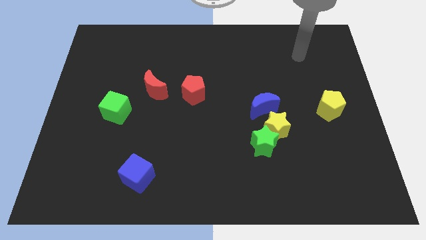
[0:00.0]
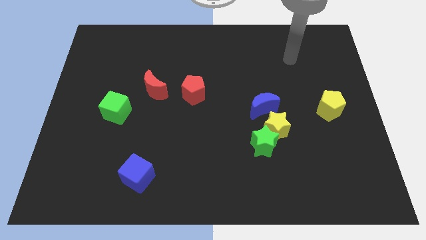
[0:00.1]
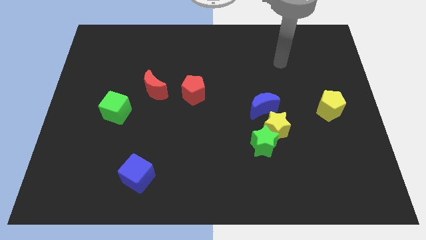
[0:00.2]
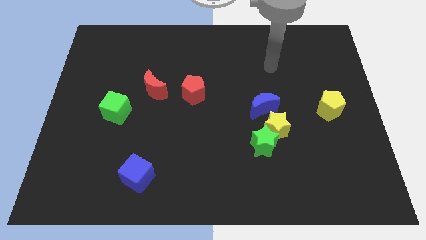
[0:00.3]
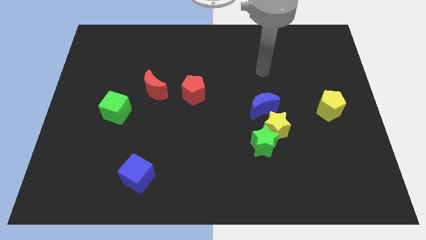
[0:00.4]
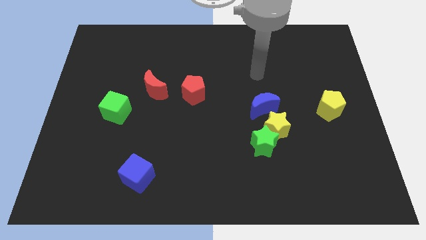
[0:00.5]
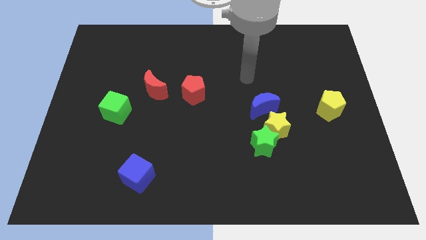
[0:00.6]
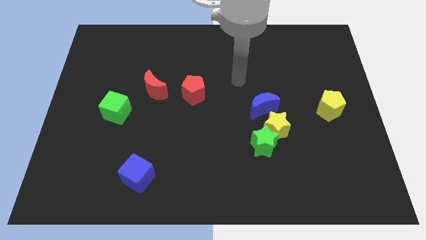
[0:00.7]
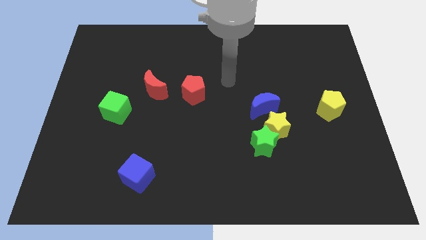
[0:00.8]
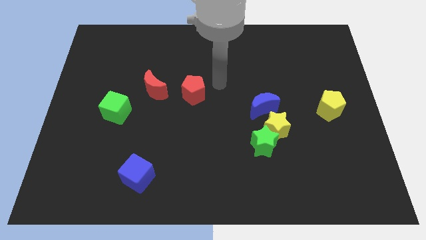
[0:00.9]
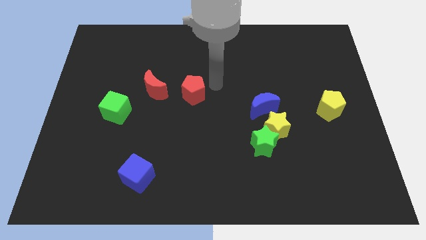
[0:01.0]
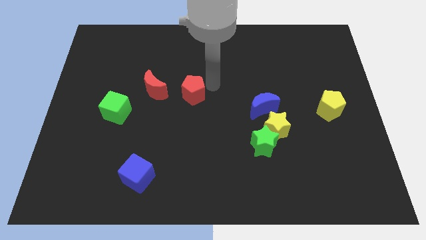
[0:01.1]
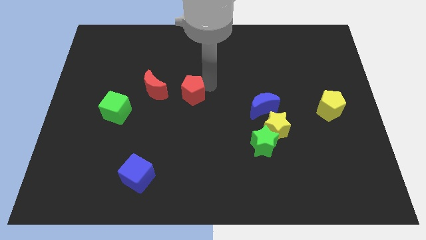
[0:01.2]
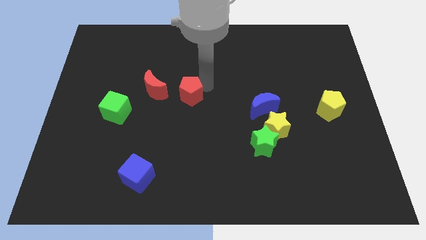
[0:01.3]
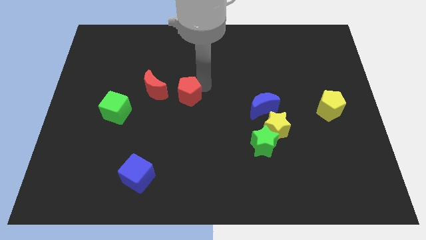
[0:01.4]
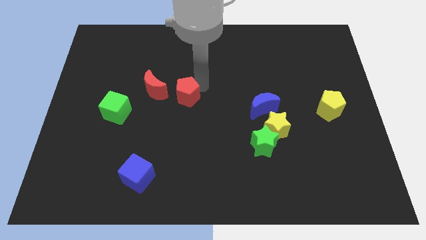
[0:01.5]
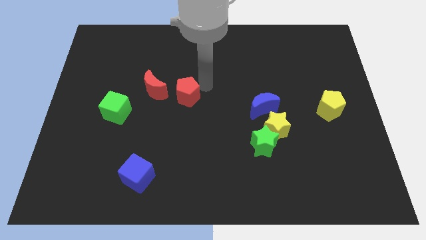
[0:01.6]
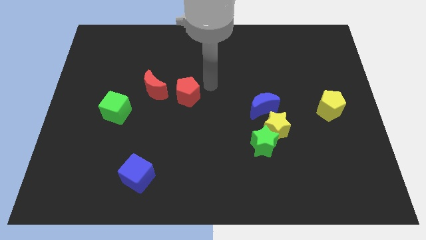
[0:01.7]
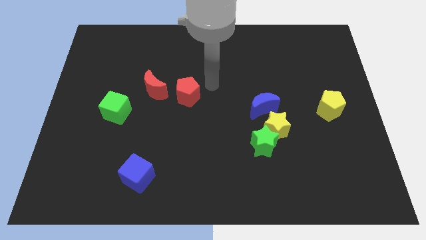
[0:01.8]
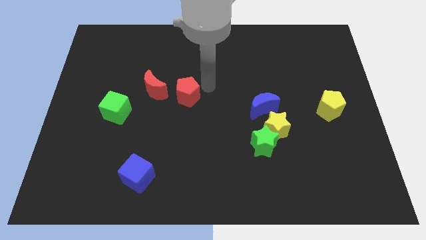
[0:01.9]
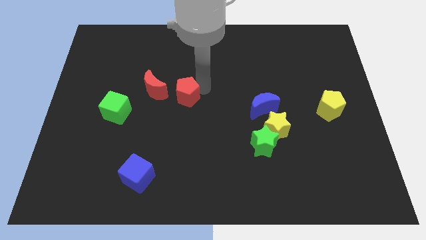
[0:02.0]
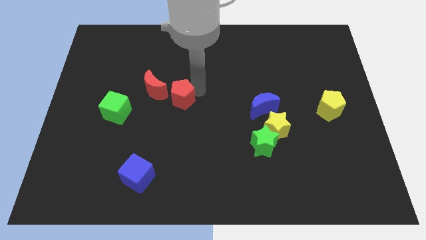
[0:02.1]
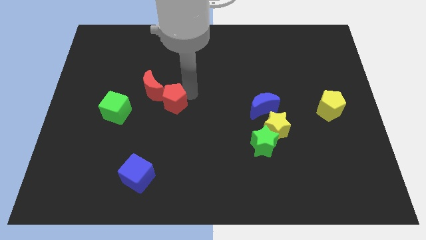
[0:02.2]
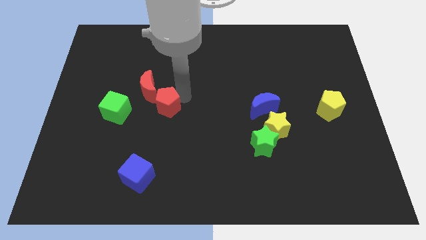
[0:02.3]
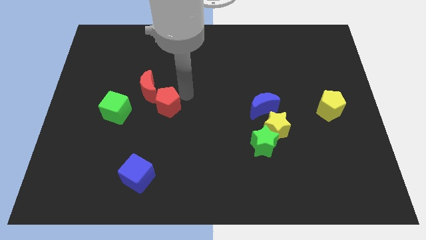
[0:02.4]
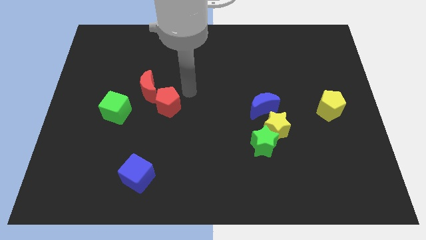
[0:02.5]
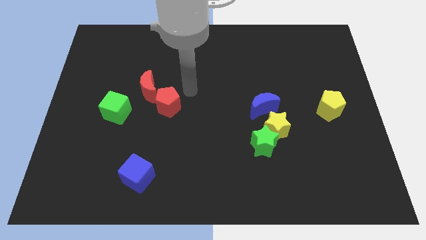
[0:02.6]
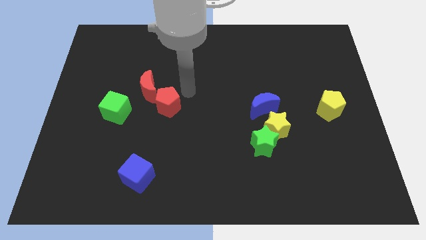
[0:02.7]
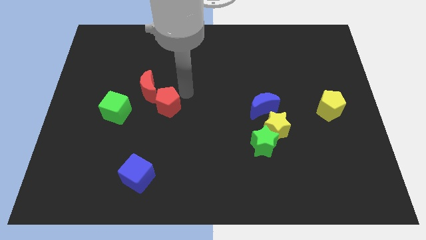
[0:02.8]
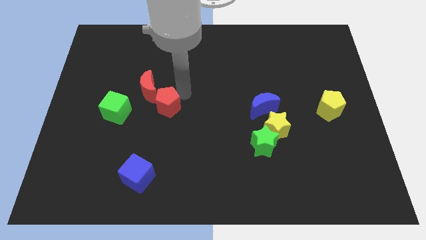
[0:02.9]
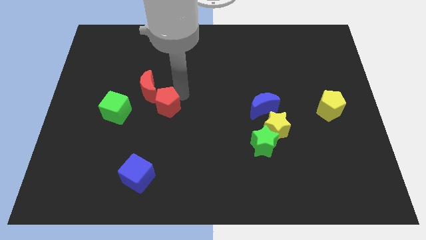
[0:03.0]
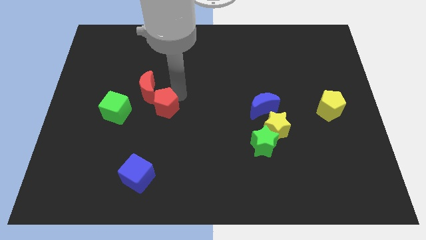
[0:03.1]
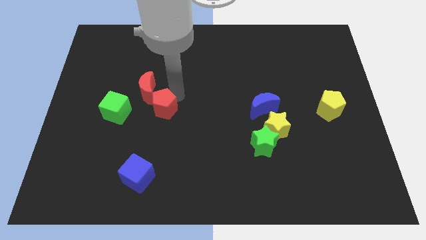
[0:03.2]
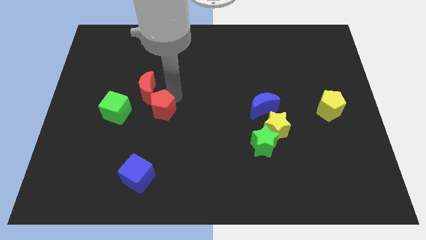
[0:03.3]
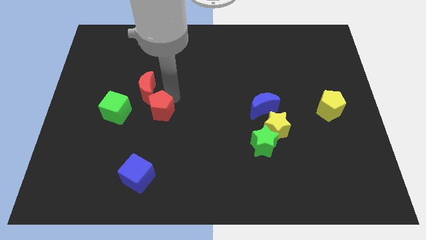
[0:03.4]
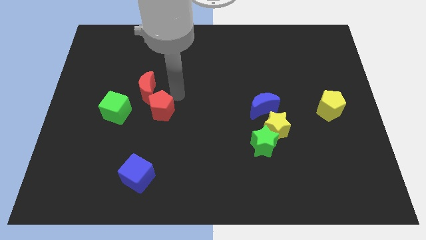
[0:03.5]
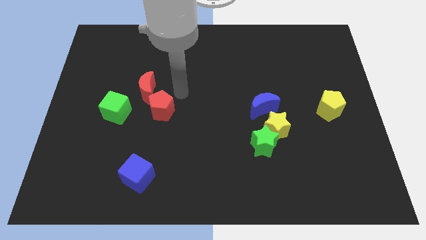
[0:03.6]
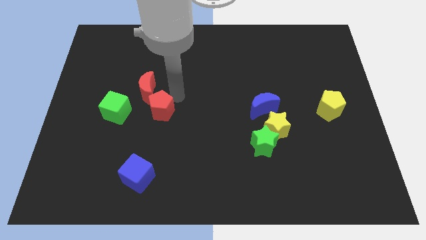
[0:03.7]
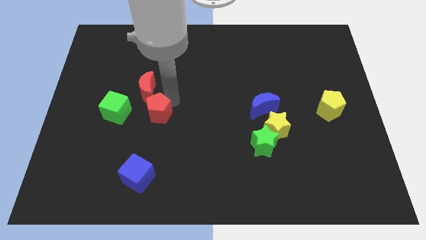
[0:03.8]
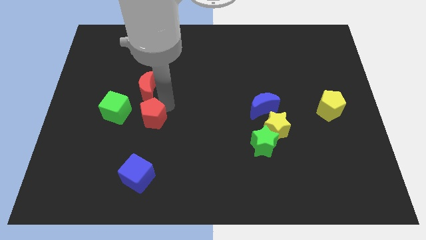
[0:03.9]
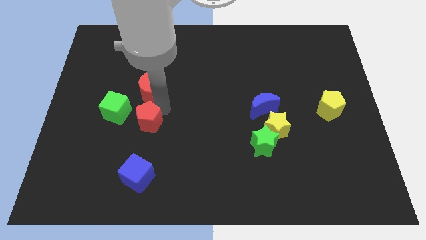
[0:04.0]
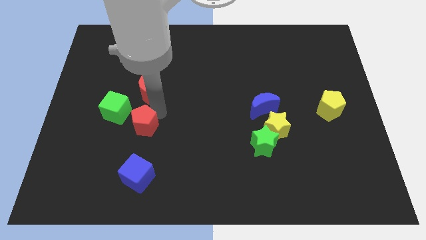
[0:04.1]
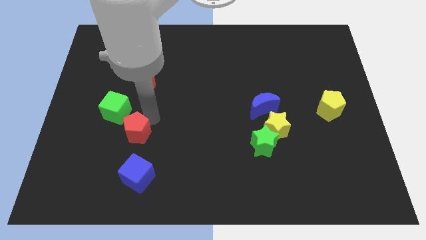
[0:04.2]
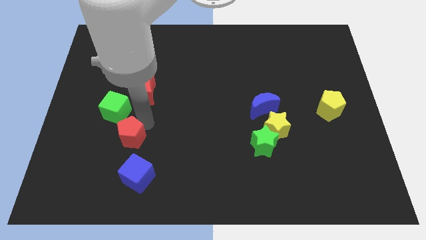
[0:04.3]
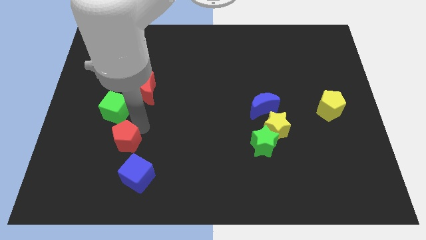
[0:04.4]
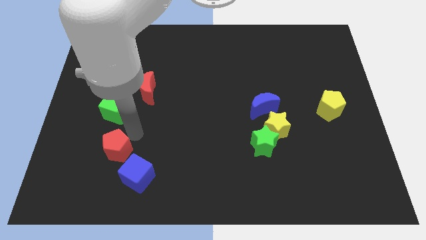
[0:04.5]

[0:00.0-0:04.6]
push the red pentagon down and then left

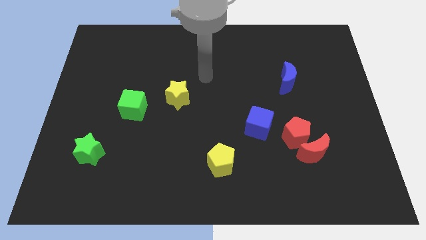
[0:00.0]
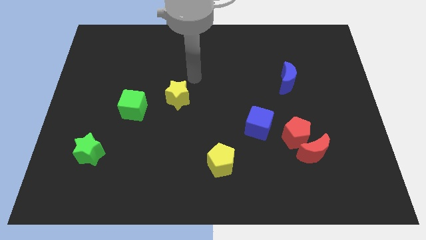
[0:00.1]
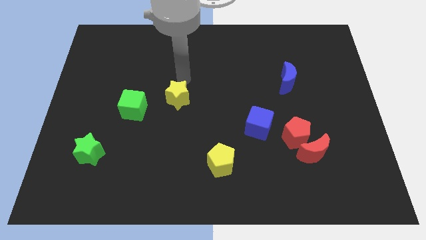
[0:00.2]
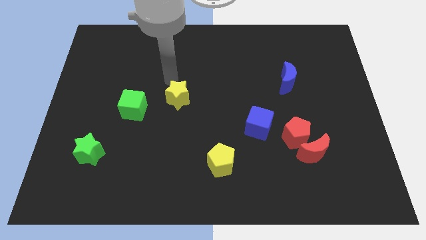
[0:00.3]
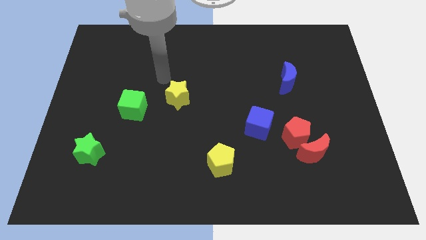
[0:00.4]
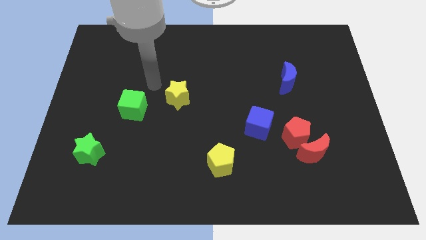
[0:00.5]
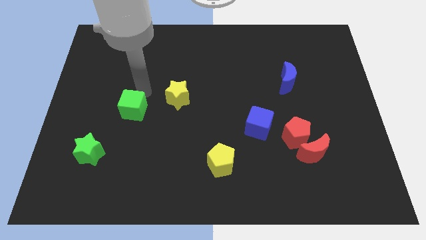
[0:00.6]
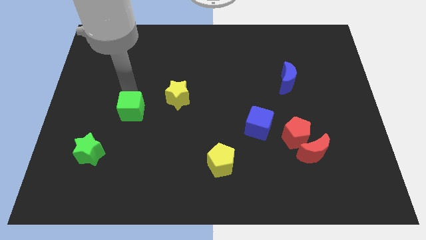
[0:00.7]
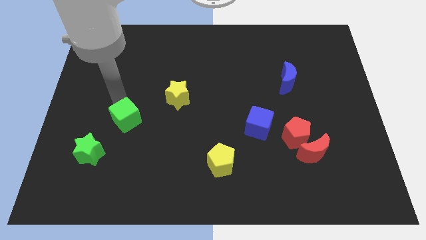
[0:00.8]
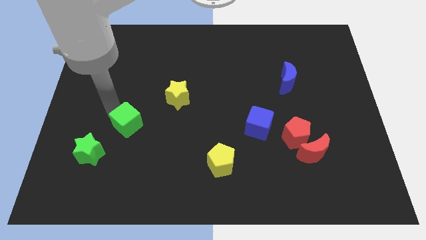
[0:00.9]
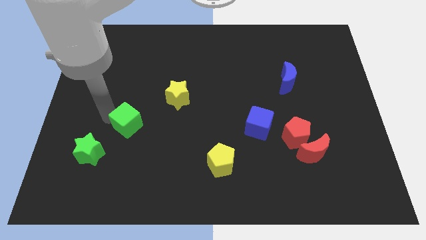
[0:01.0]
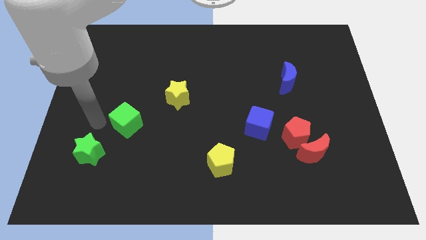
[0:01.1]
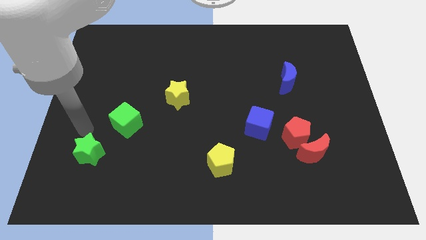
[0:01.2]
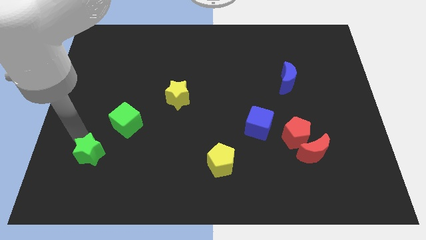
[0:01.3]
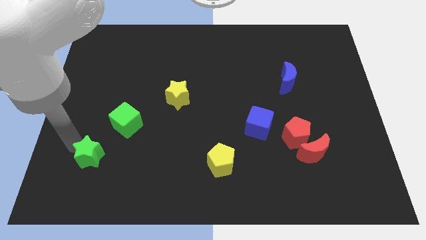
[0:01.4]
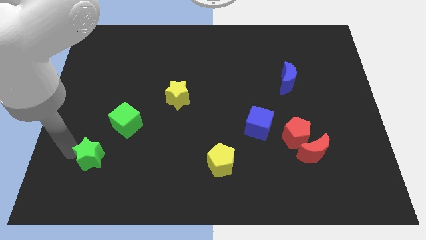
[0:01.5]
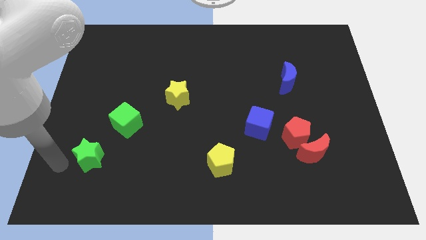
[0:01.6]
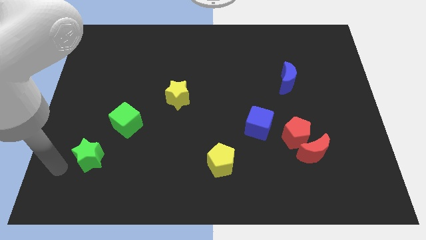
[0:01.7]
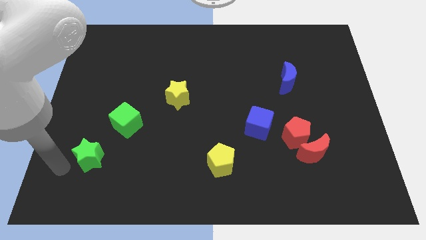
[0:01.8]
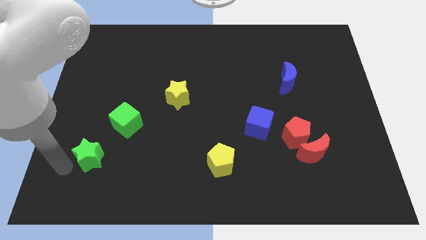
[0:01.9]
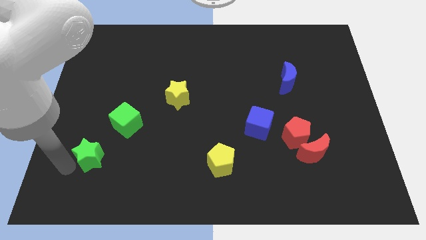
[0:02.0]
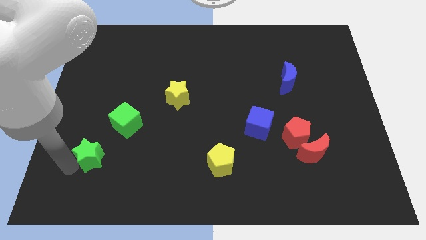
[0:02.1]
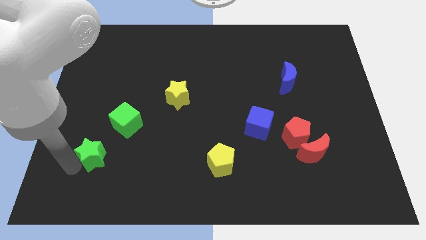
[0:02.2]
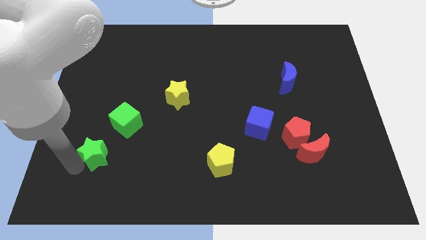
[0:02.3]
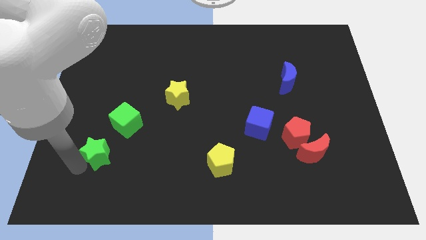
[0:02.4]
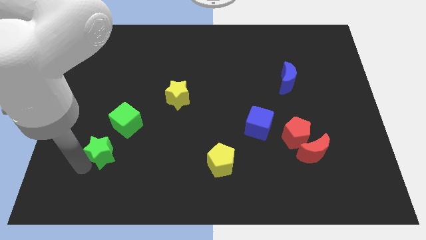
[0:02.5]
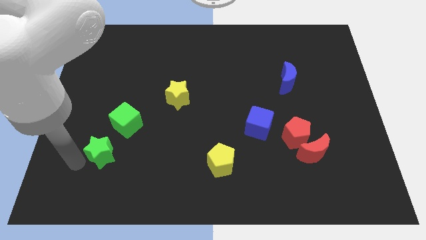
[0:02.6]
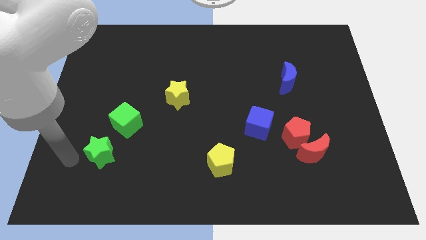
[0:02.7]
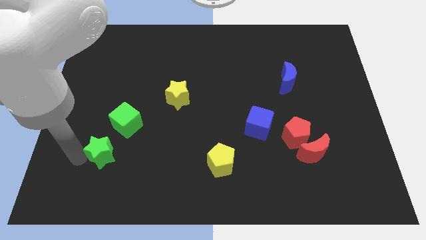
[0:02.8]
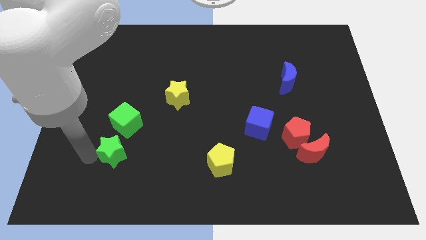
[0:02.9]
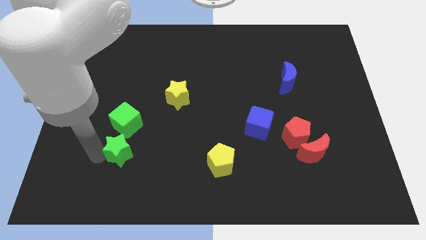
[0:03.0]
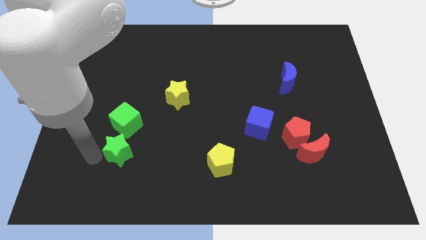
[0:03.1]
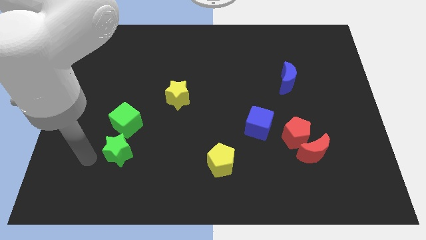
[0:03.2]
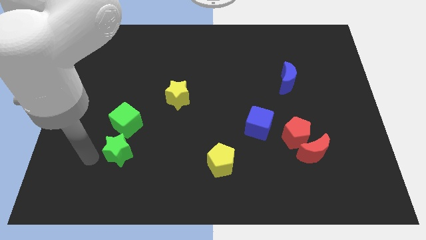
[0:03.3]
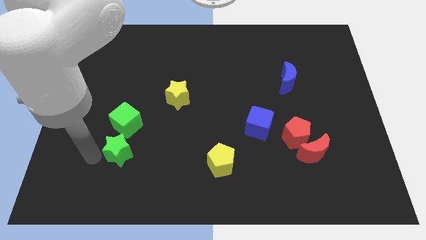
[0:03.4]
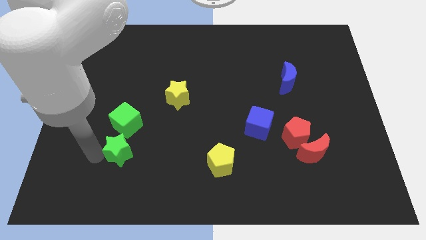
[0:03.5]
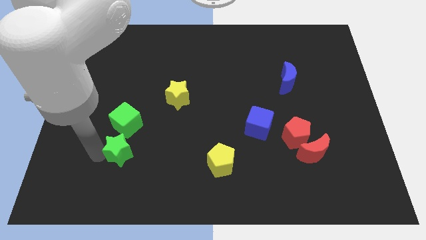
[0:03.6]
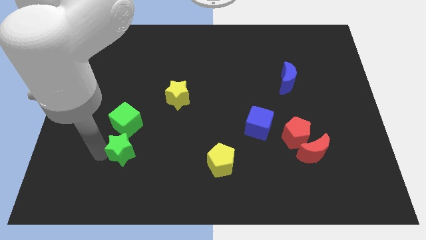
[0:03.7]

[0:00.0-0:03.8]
slide the green star to the right slightly
